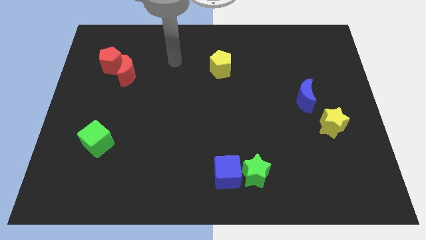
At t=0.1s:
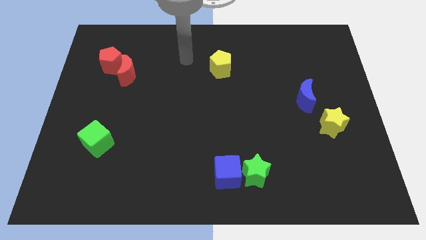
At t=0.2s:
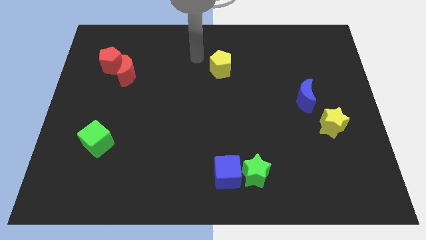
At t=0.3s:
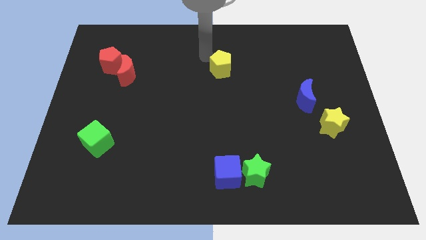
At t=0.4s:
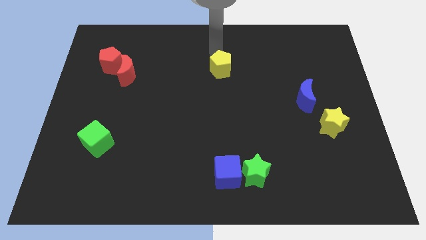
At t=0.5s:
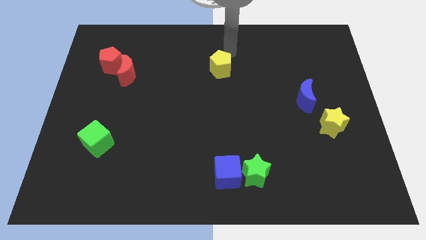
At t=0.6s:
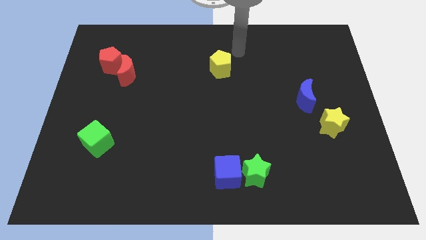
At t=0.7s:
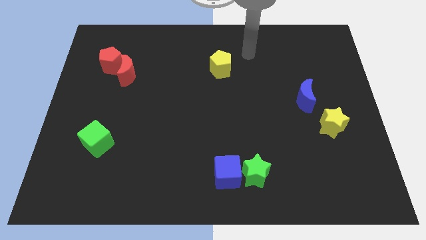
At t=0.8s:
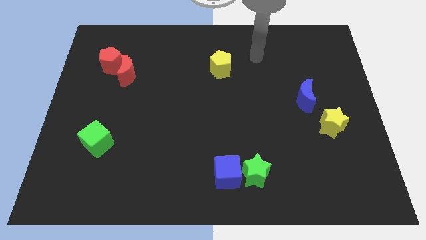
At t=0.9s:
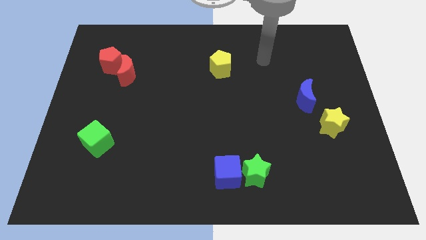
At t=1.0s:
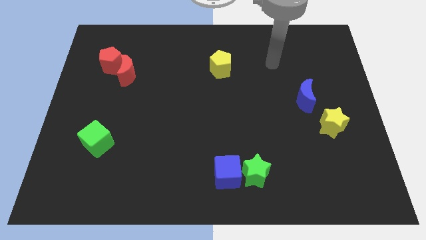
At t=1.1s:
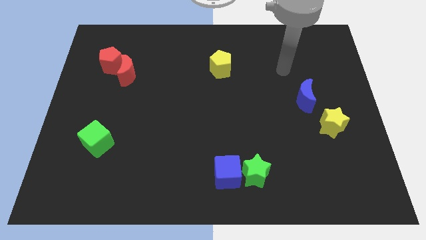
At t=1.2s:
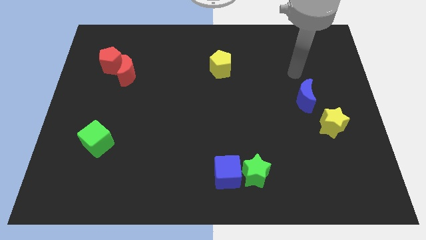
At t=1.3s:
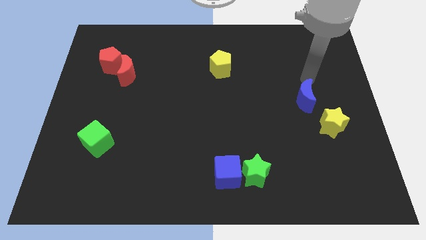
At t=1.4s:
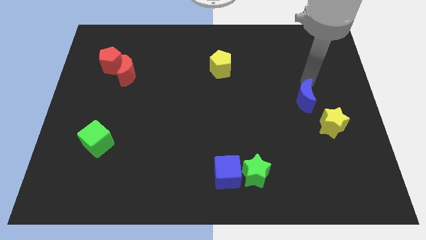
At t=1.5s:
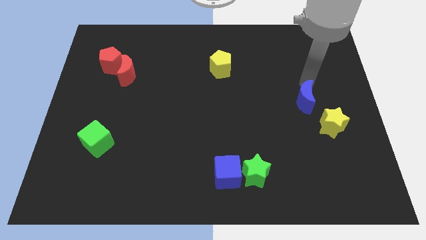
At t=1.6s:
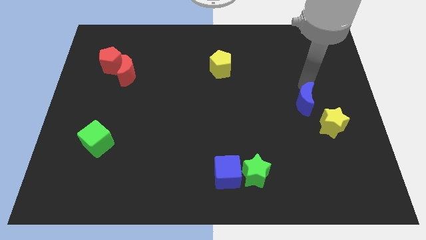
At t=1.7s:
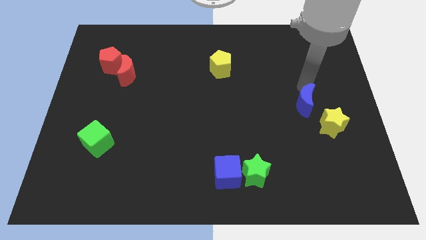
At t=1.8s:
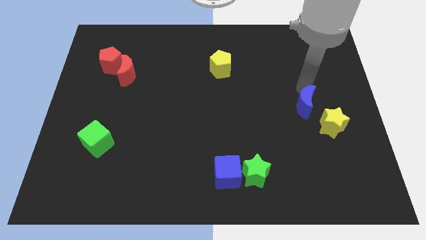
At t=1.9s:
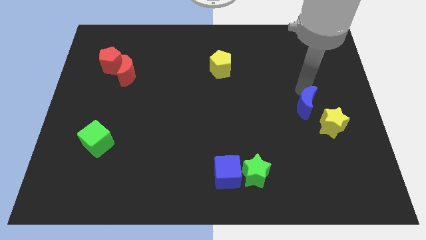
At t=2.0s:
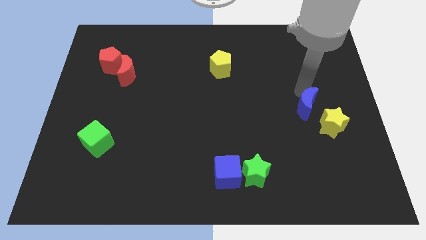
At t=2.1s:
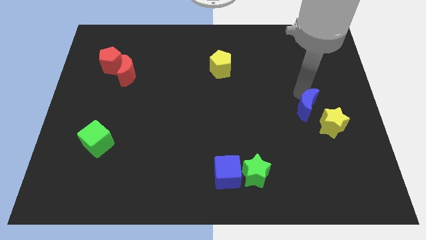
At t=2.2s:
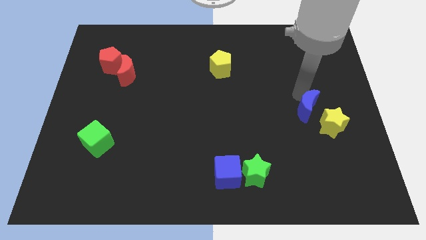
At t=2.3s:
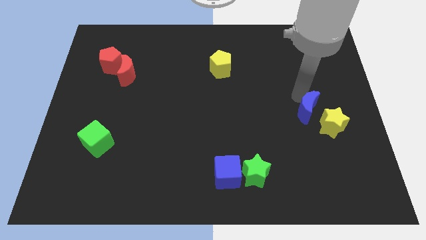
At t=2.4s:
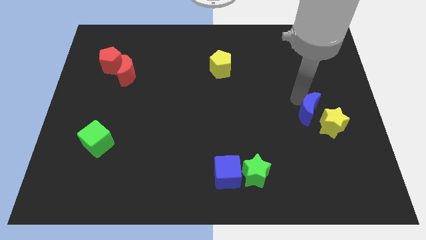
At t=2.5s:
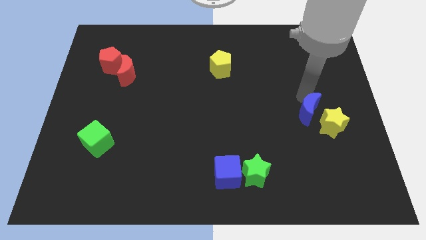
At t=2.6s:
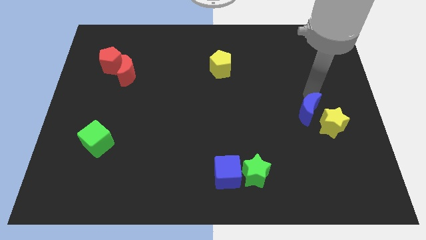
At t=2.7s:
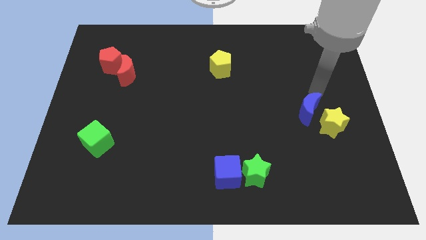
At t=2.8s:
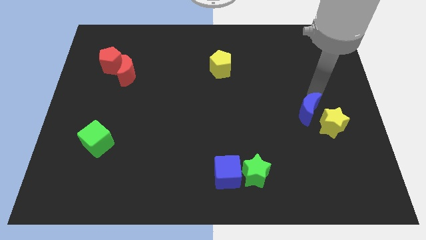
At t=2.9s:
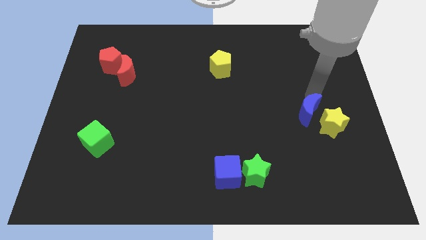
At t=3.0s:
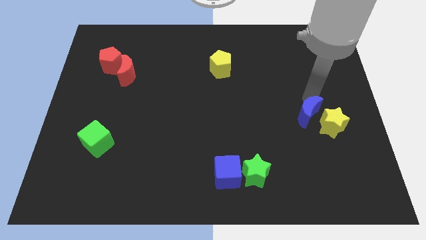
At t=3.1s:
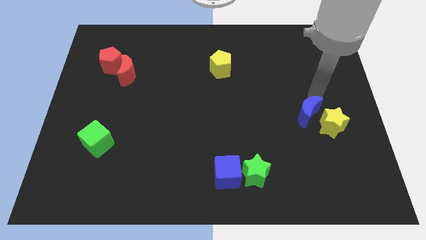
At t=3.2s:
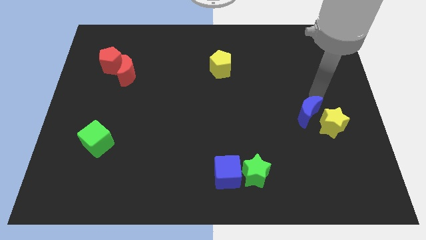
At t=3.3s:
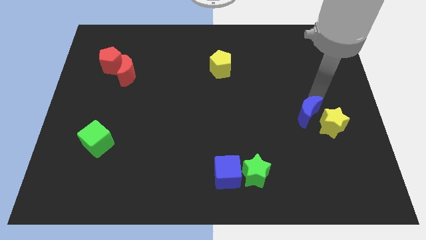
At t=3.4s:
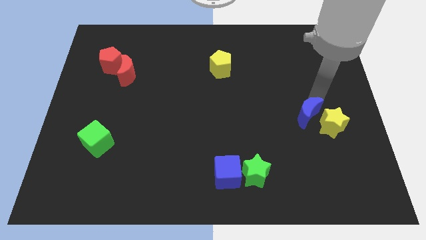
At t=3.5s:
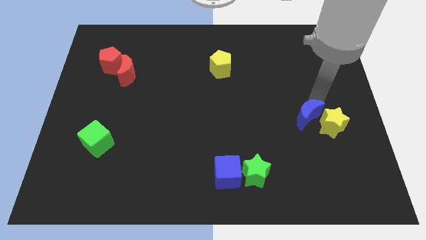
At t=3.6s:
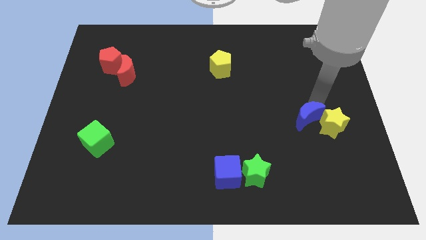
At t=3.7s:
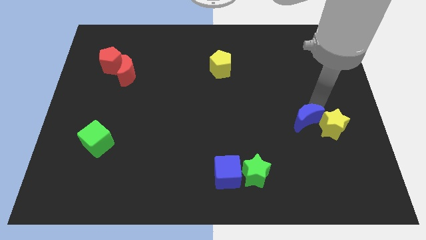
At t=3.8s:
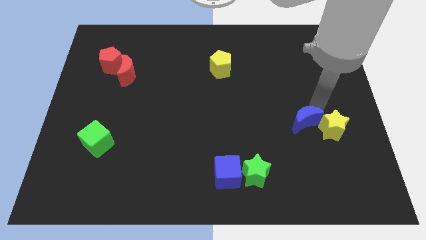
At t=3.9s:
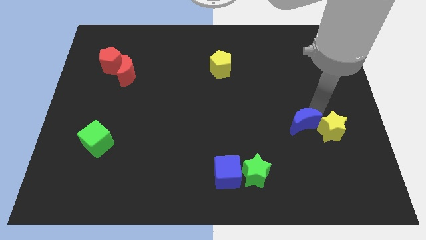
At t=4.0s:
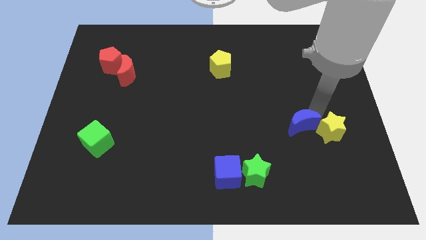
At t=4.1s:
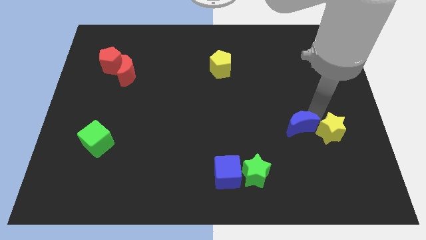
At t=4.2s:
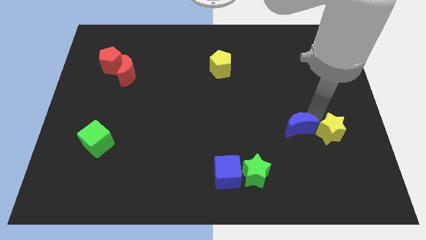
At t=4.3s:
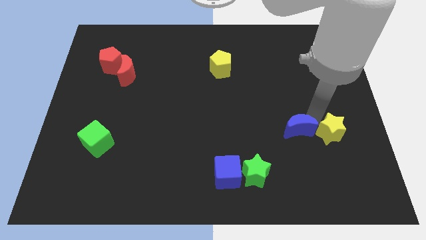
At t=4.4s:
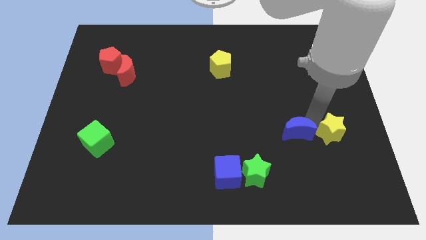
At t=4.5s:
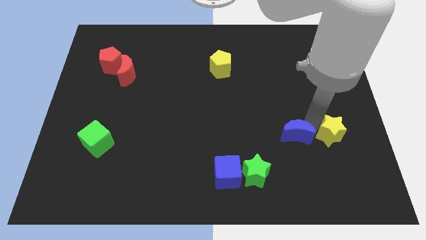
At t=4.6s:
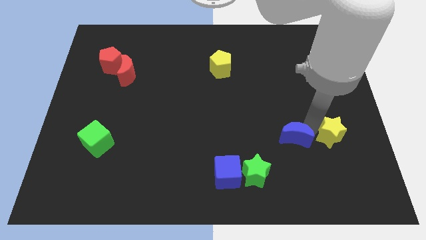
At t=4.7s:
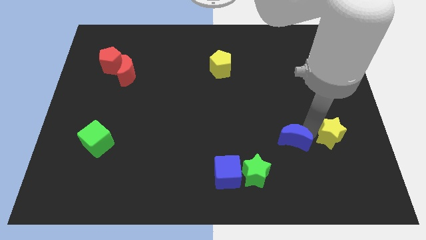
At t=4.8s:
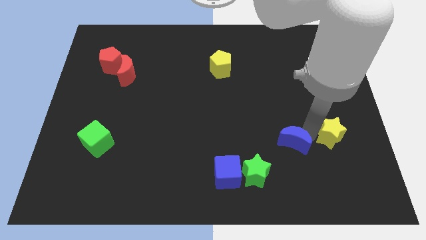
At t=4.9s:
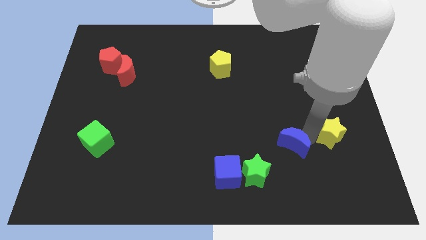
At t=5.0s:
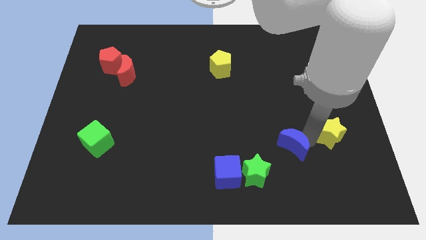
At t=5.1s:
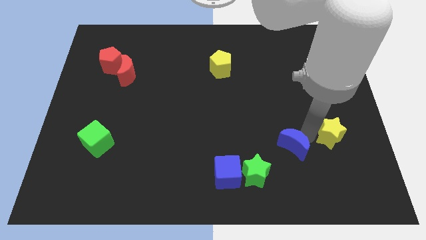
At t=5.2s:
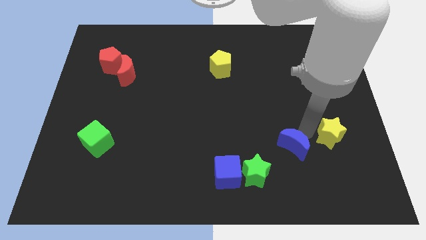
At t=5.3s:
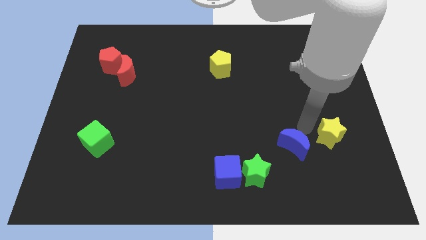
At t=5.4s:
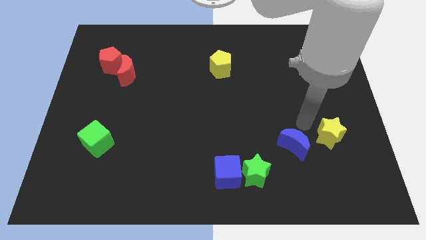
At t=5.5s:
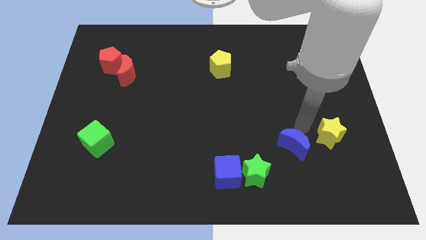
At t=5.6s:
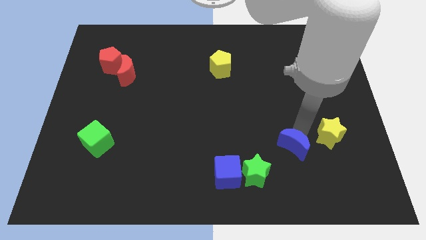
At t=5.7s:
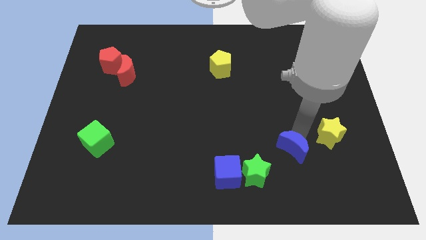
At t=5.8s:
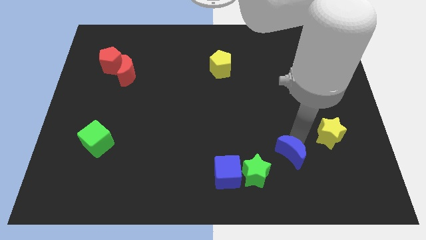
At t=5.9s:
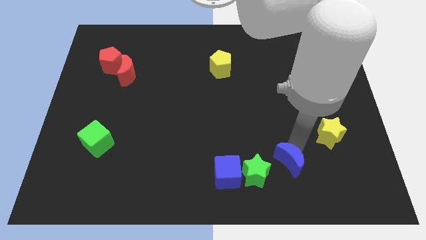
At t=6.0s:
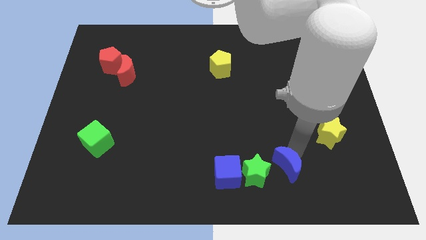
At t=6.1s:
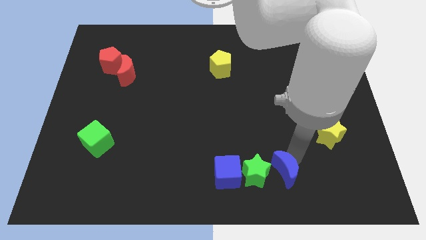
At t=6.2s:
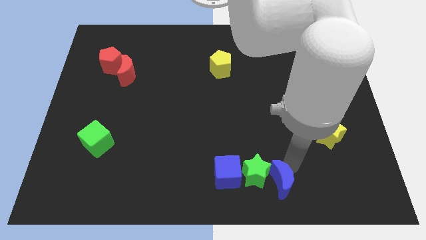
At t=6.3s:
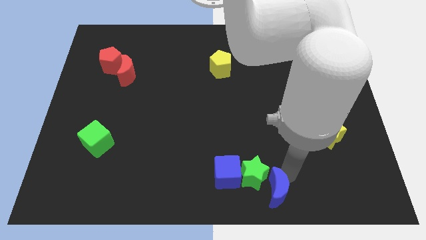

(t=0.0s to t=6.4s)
push the blue moon to the bottom side

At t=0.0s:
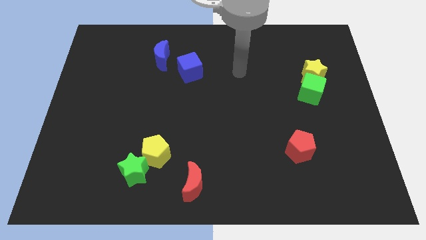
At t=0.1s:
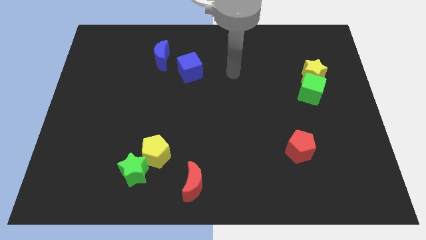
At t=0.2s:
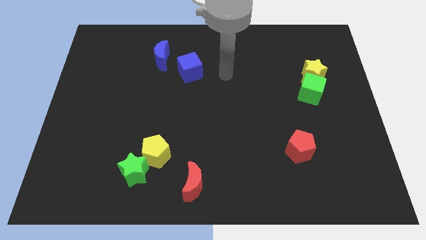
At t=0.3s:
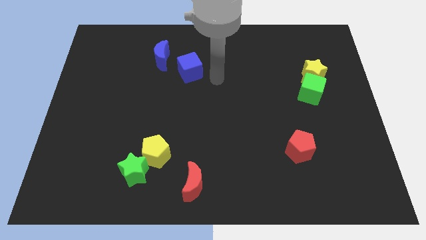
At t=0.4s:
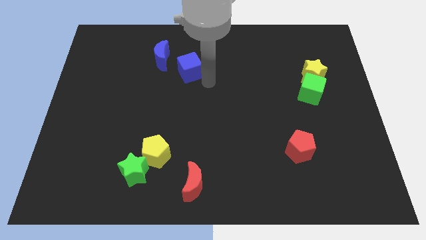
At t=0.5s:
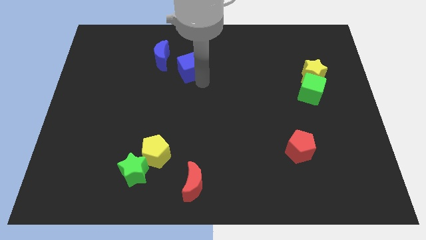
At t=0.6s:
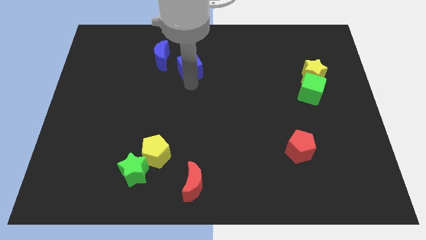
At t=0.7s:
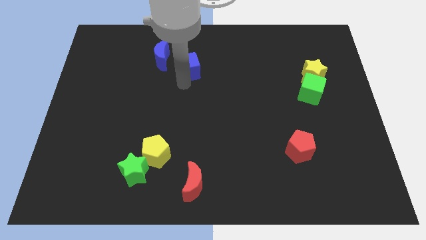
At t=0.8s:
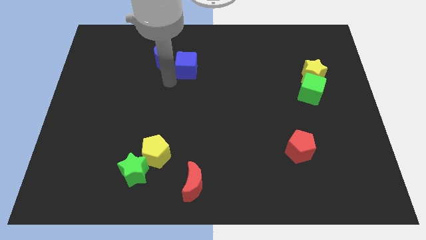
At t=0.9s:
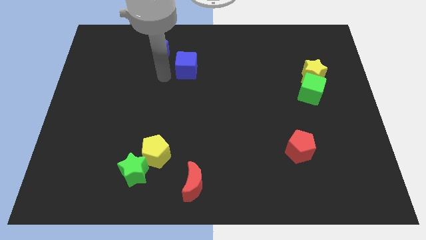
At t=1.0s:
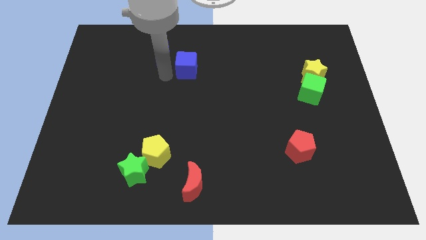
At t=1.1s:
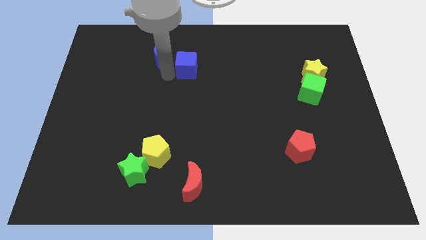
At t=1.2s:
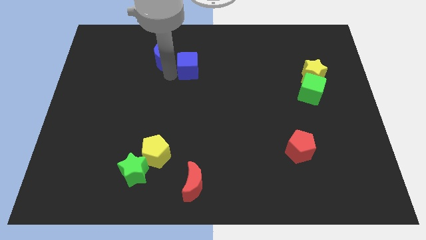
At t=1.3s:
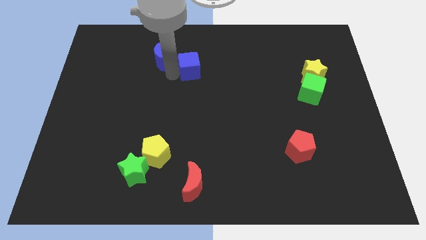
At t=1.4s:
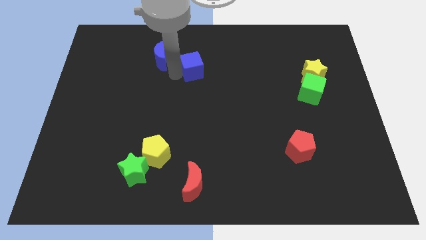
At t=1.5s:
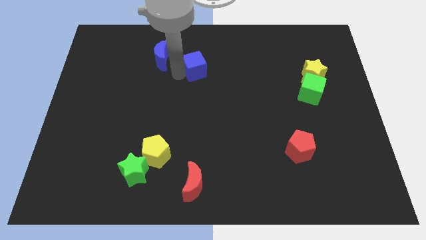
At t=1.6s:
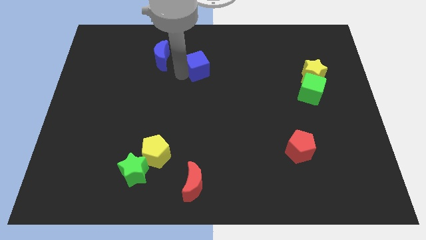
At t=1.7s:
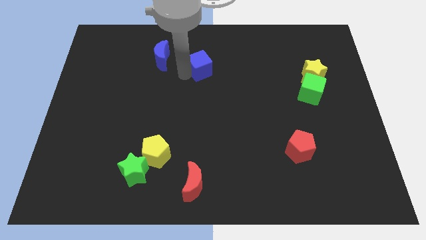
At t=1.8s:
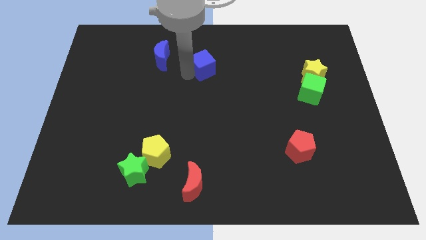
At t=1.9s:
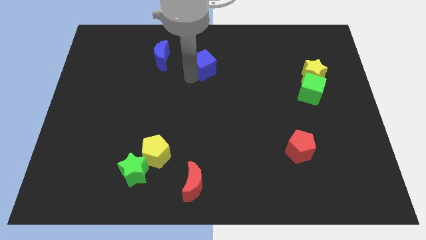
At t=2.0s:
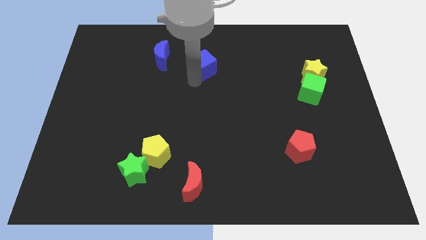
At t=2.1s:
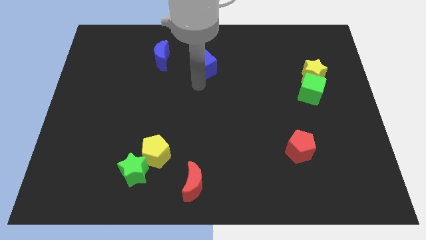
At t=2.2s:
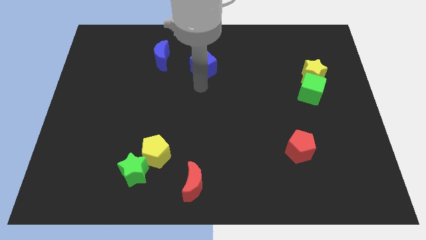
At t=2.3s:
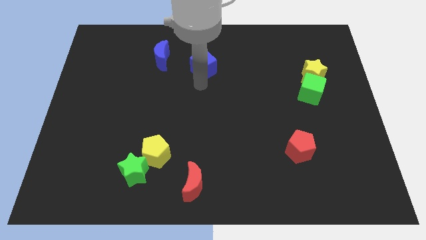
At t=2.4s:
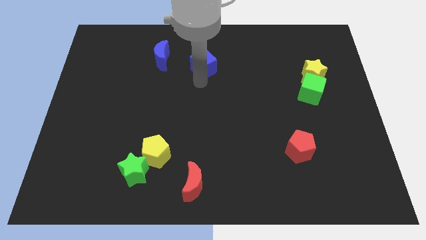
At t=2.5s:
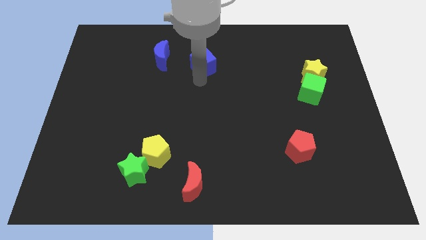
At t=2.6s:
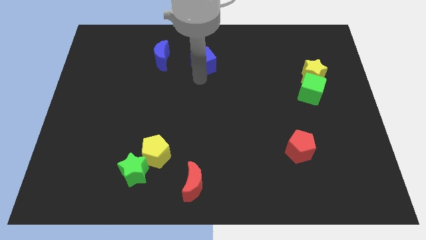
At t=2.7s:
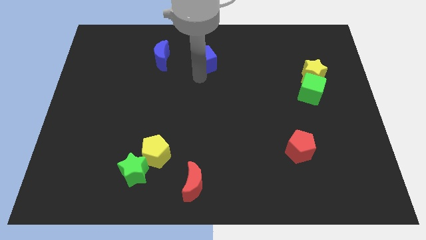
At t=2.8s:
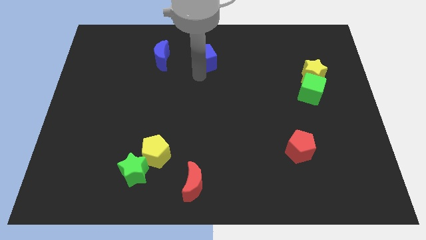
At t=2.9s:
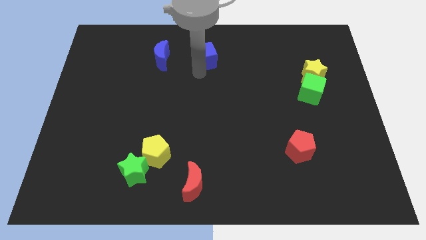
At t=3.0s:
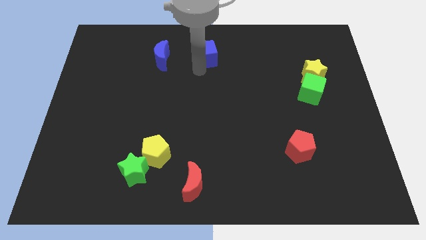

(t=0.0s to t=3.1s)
put the blue cube to the top side
